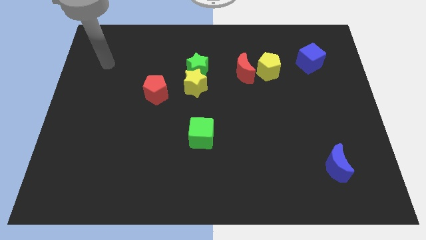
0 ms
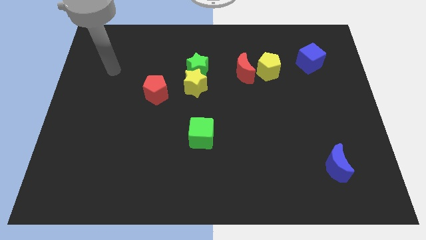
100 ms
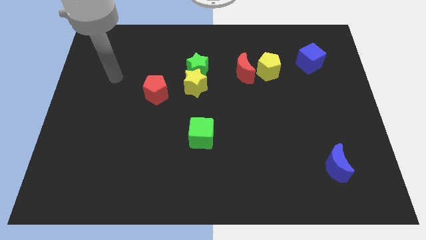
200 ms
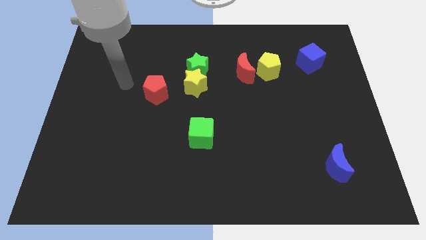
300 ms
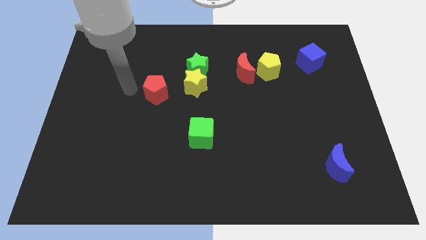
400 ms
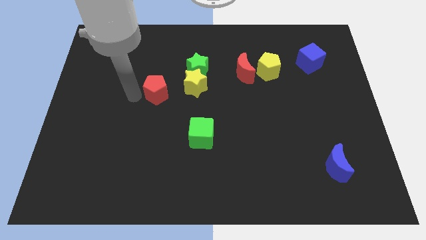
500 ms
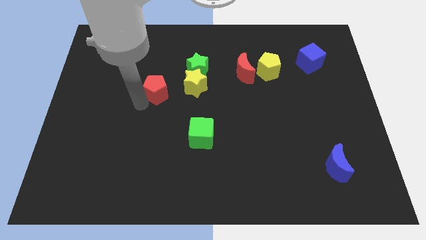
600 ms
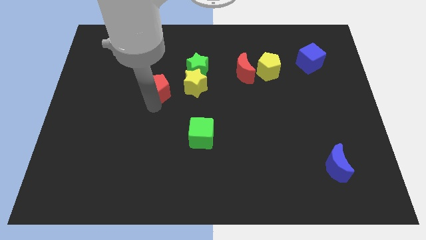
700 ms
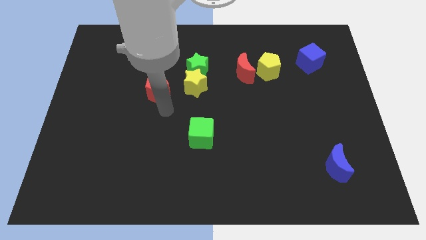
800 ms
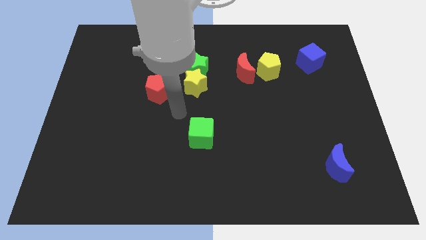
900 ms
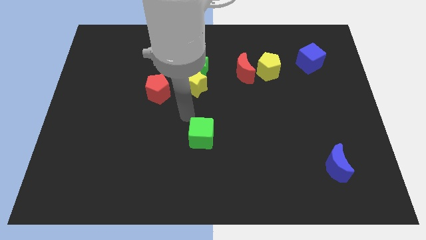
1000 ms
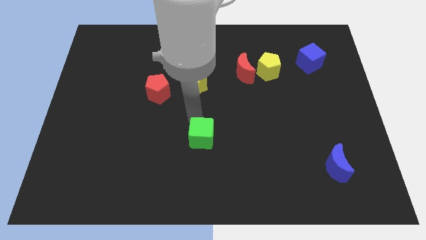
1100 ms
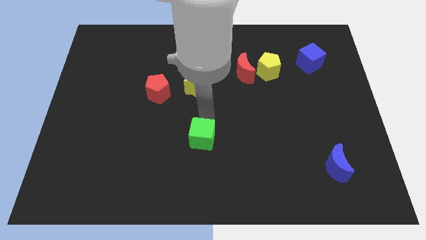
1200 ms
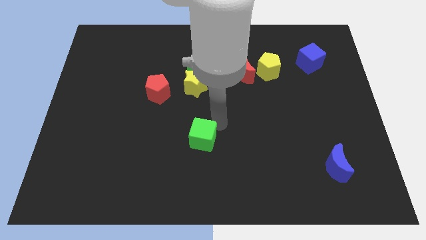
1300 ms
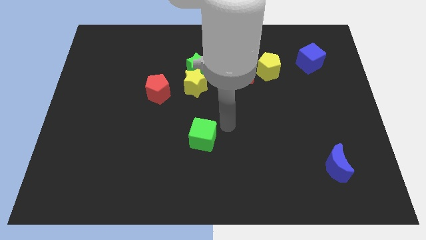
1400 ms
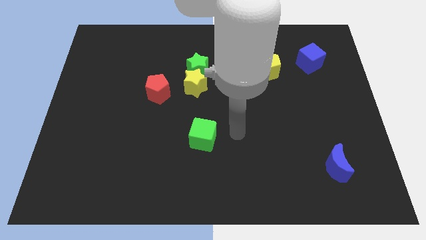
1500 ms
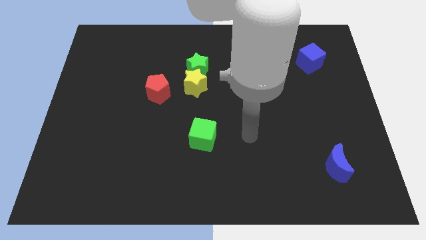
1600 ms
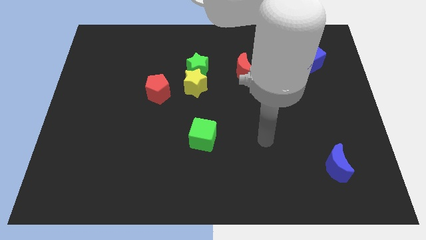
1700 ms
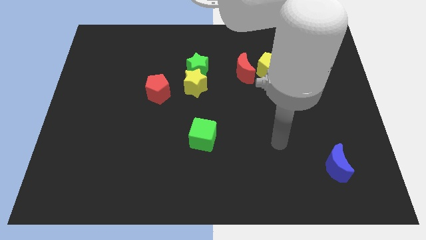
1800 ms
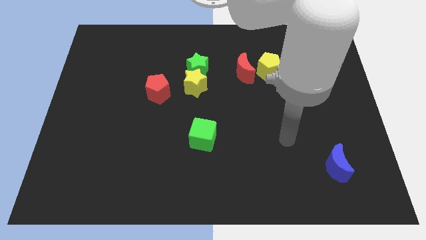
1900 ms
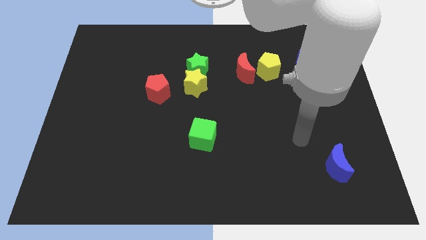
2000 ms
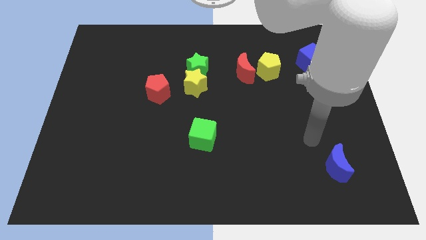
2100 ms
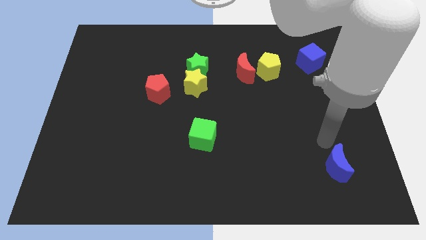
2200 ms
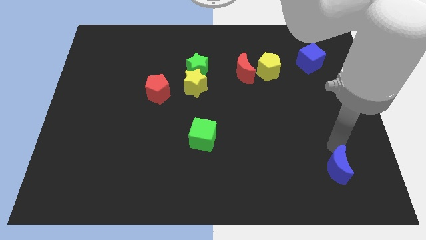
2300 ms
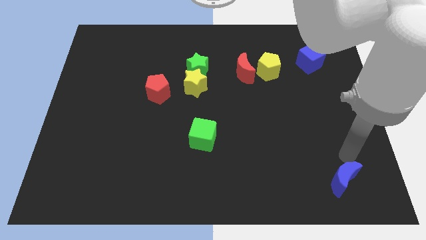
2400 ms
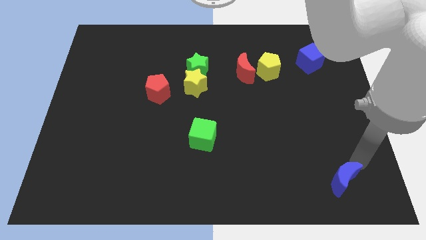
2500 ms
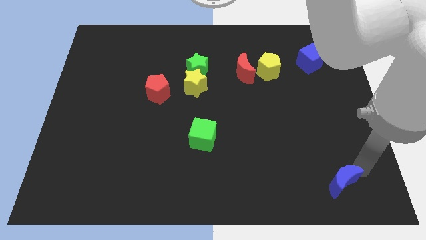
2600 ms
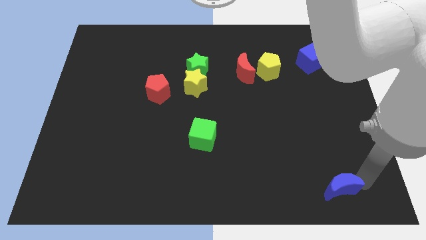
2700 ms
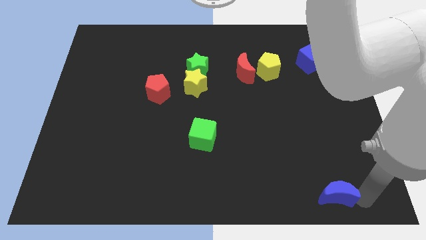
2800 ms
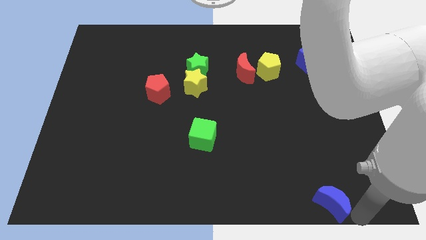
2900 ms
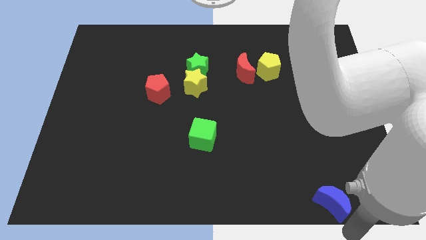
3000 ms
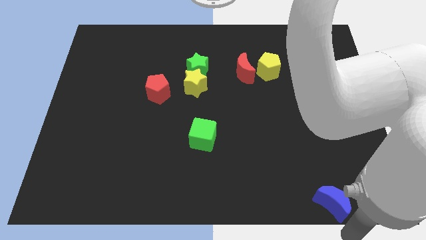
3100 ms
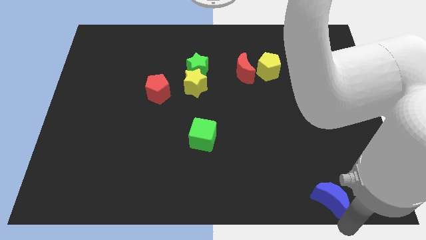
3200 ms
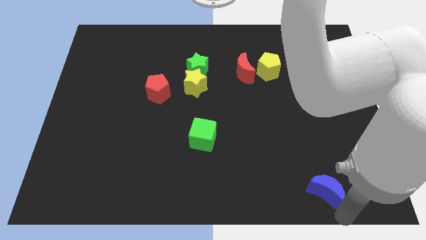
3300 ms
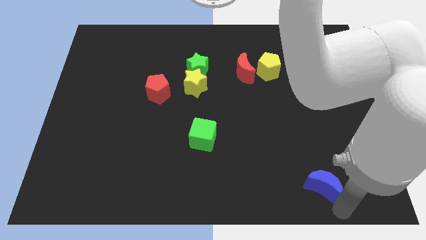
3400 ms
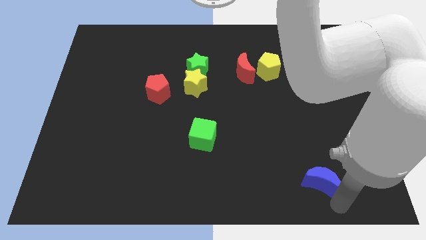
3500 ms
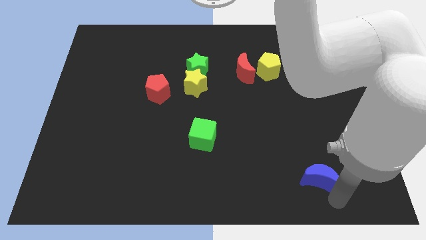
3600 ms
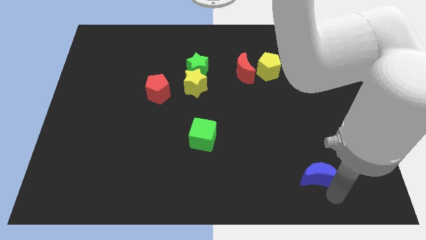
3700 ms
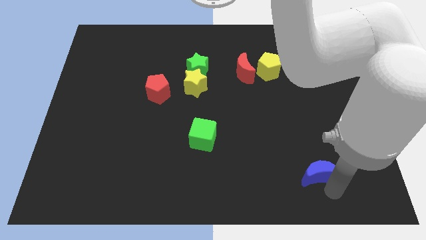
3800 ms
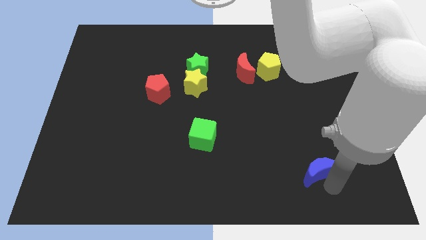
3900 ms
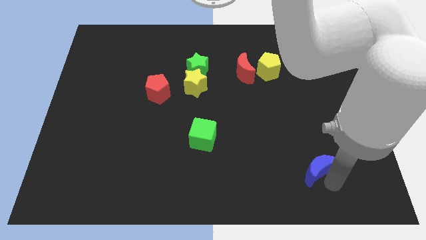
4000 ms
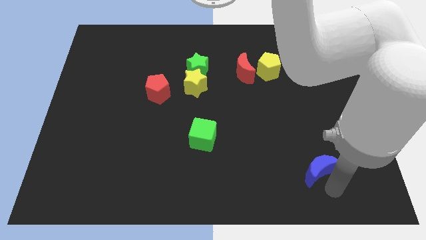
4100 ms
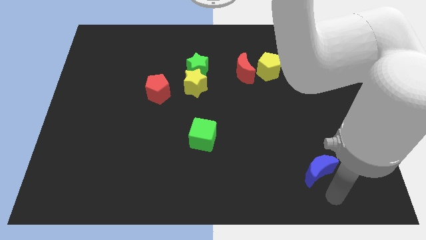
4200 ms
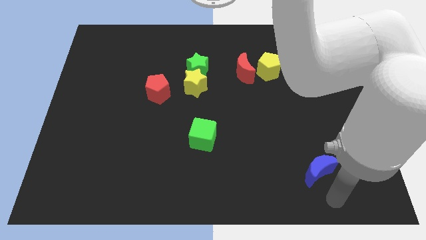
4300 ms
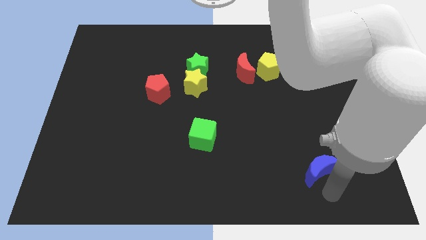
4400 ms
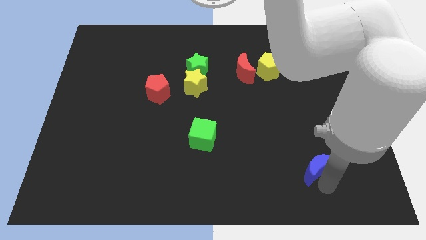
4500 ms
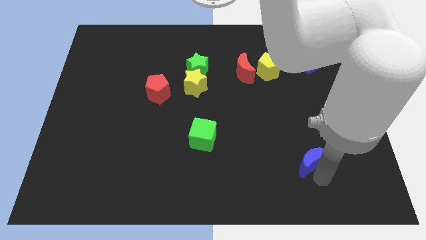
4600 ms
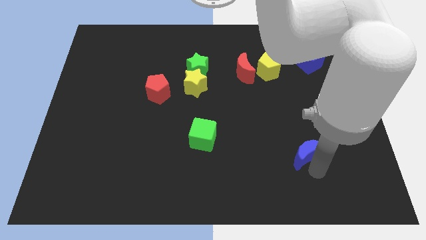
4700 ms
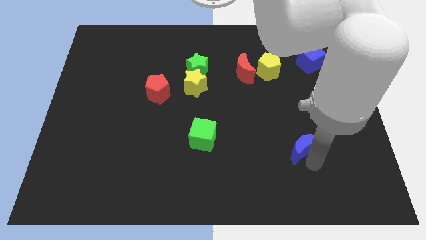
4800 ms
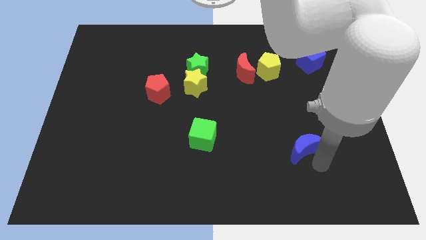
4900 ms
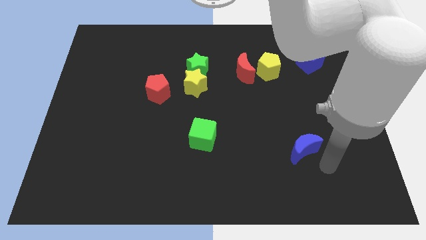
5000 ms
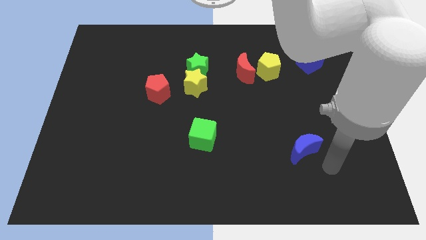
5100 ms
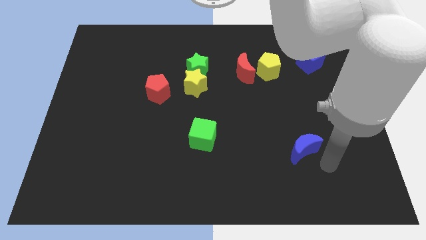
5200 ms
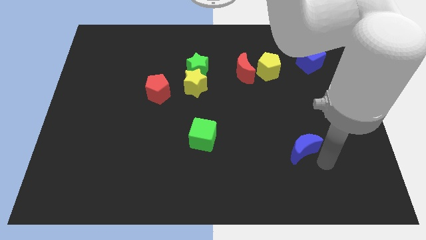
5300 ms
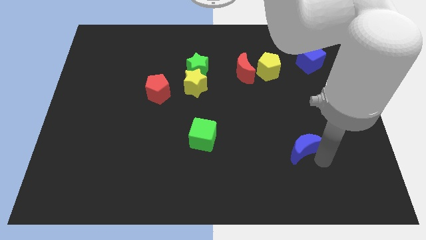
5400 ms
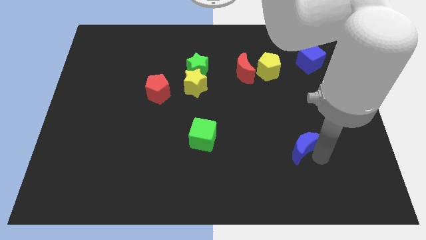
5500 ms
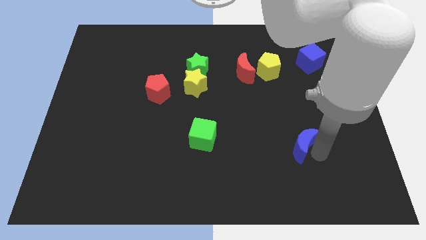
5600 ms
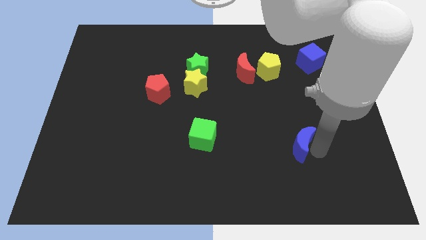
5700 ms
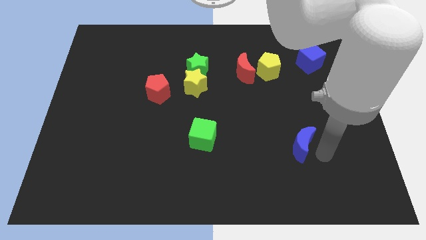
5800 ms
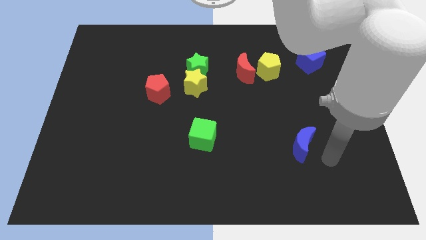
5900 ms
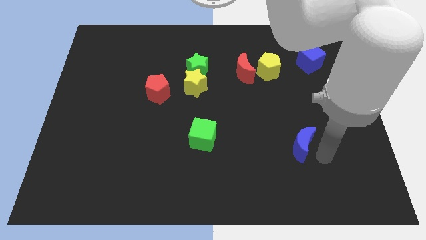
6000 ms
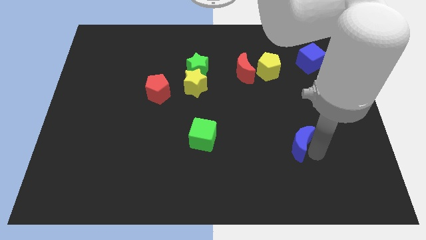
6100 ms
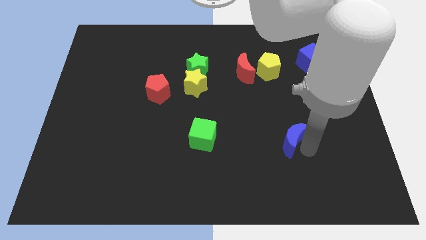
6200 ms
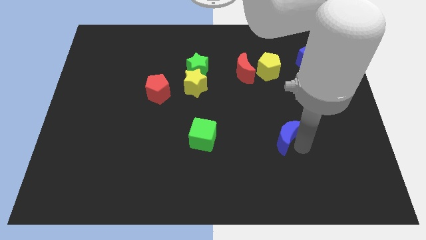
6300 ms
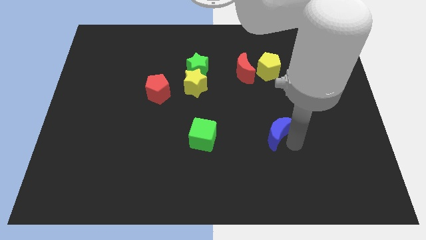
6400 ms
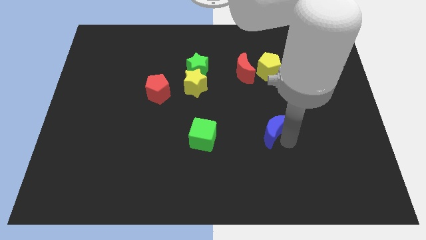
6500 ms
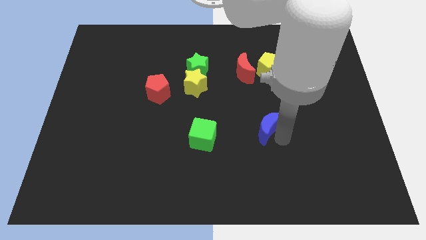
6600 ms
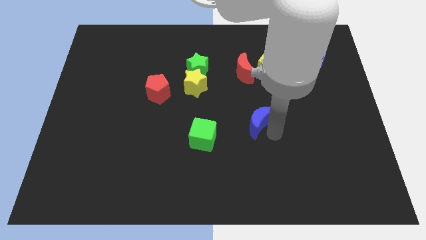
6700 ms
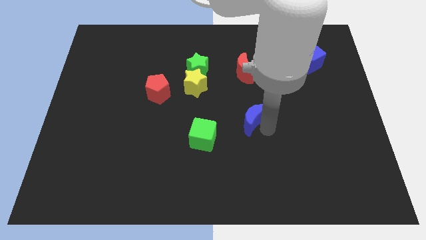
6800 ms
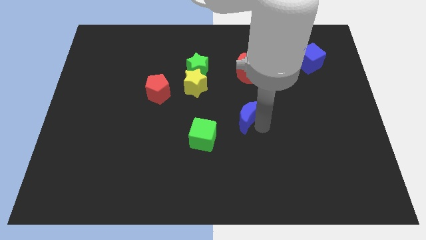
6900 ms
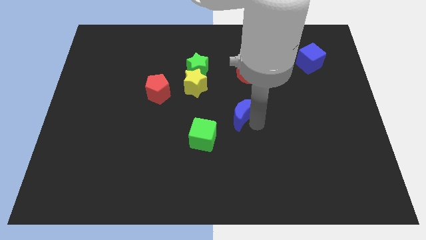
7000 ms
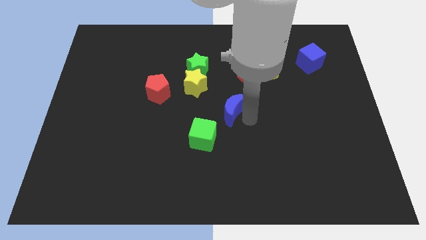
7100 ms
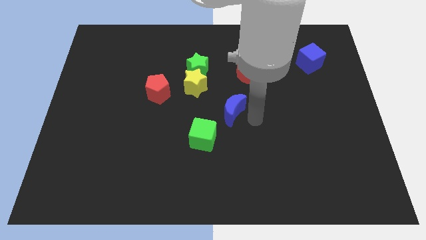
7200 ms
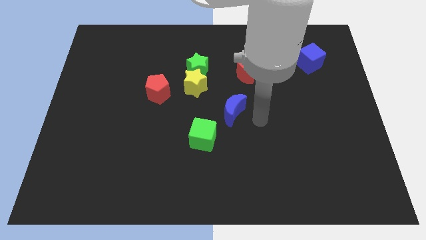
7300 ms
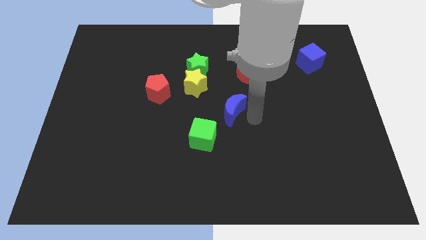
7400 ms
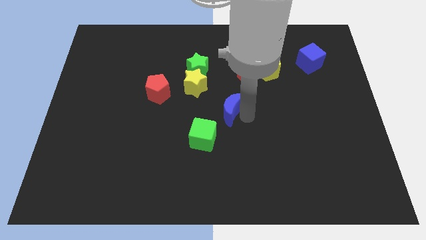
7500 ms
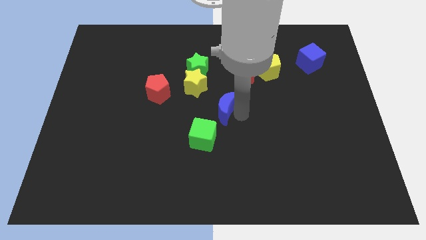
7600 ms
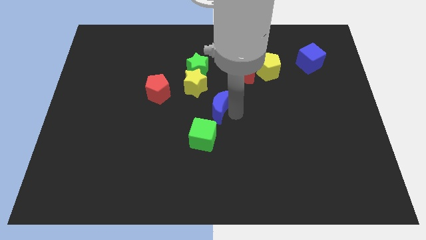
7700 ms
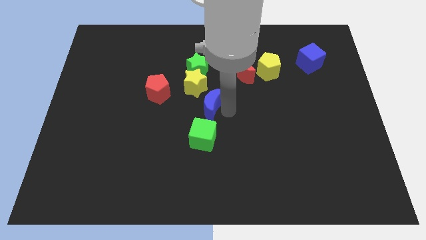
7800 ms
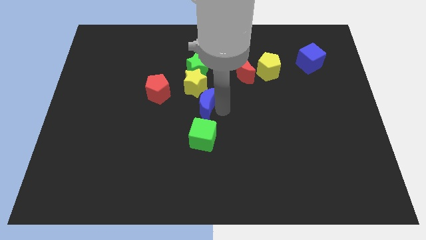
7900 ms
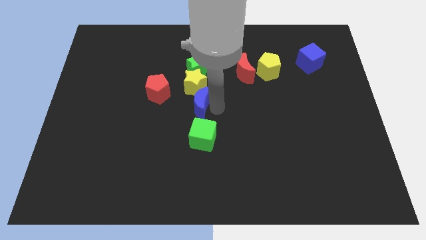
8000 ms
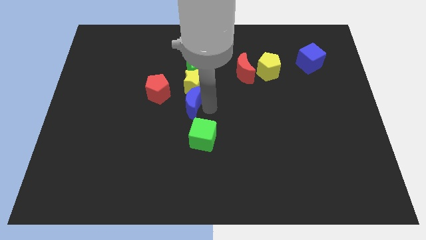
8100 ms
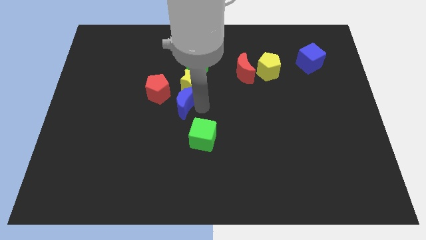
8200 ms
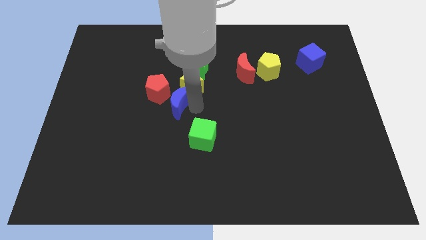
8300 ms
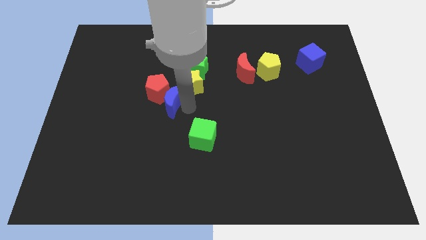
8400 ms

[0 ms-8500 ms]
slide the blue moon next to the red pentagon
